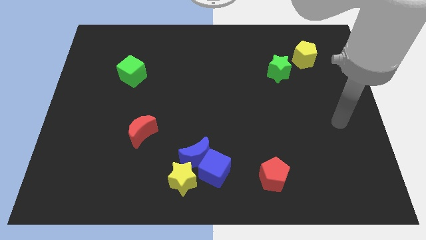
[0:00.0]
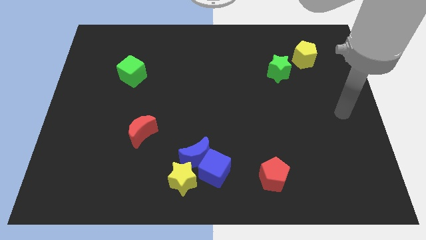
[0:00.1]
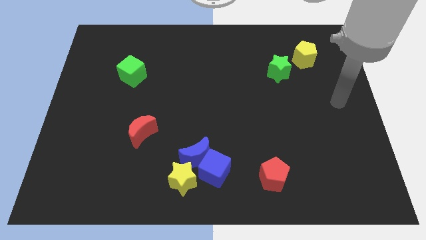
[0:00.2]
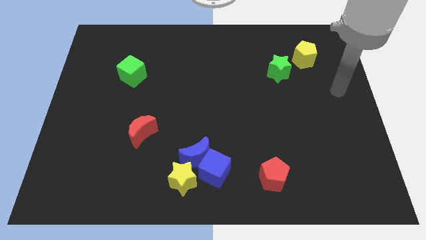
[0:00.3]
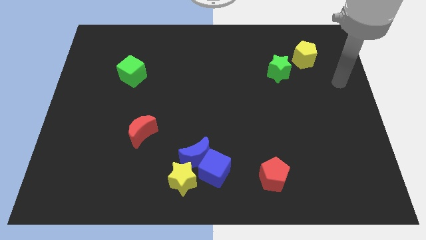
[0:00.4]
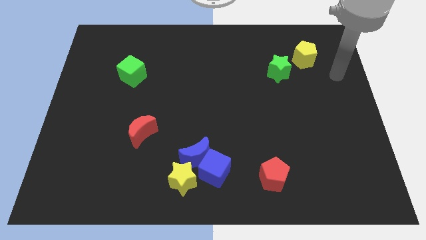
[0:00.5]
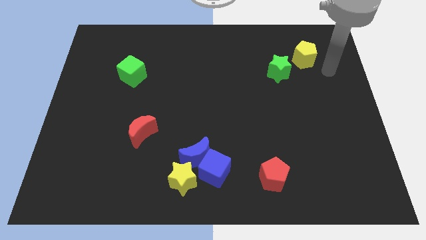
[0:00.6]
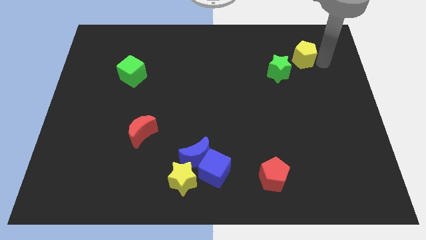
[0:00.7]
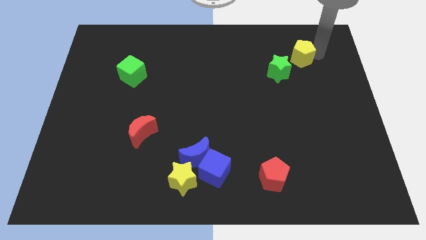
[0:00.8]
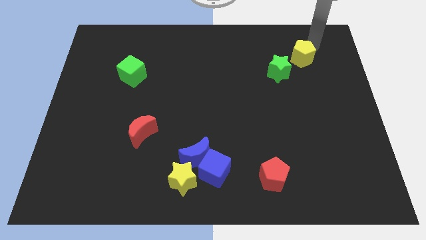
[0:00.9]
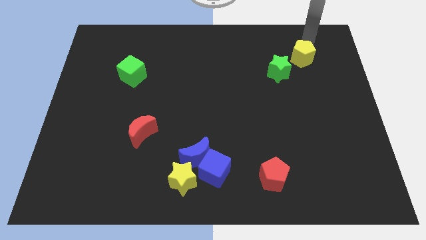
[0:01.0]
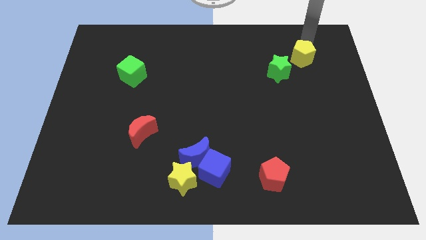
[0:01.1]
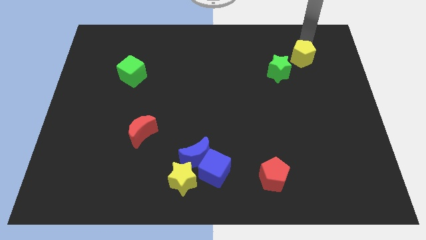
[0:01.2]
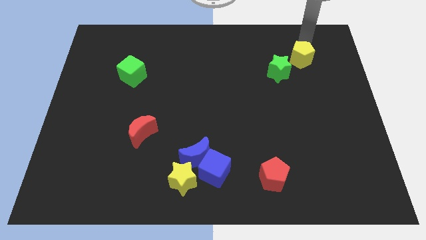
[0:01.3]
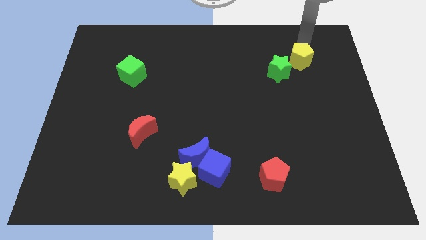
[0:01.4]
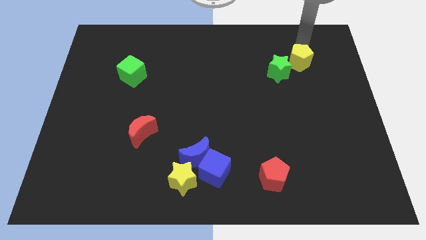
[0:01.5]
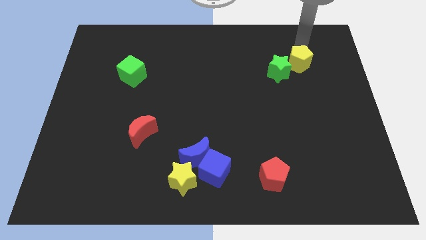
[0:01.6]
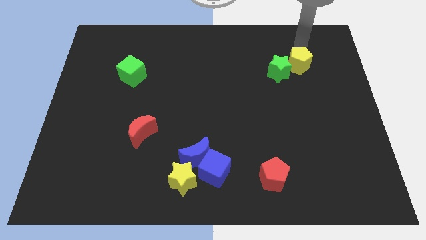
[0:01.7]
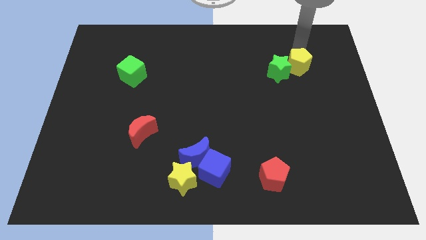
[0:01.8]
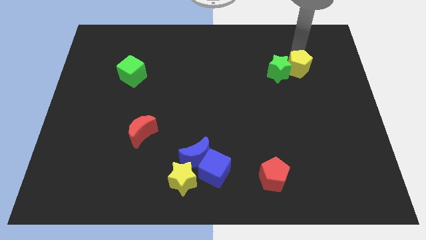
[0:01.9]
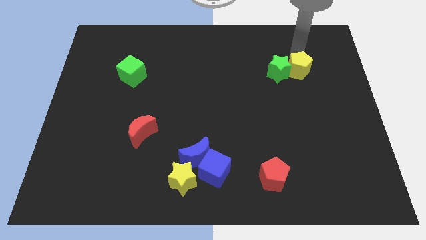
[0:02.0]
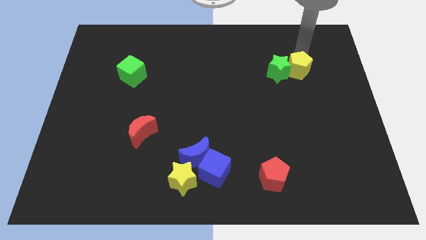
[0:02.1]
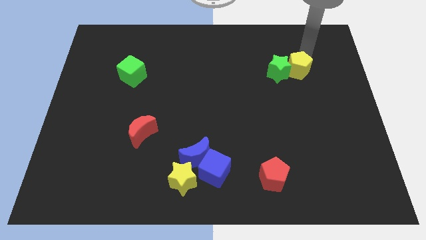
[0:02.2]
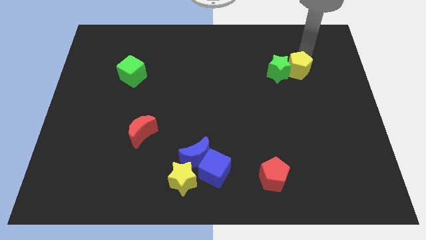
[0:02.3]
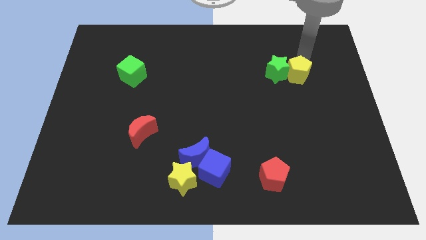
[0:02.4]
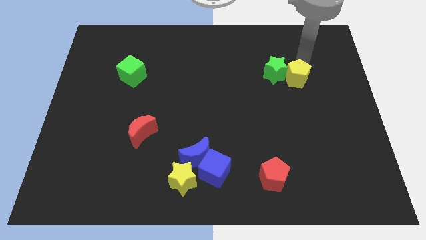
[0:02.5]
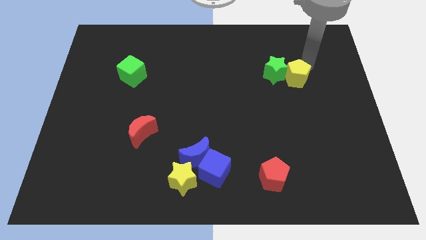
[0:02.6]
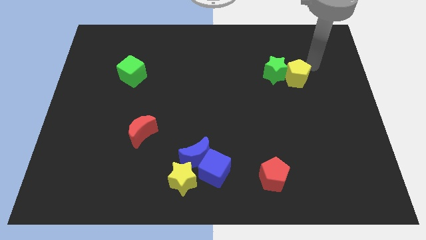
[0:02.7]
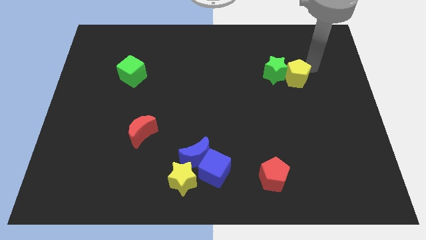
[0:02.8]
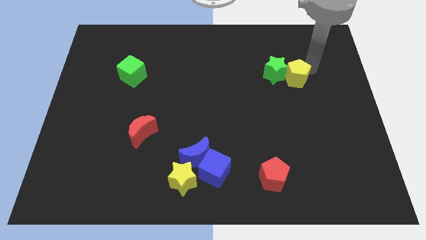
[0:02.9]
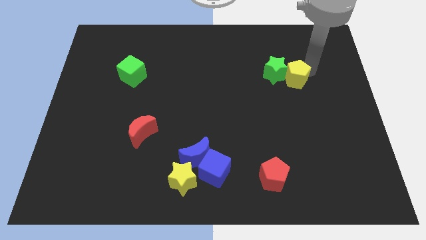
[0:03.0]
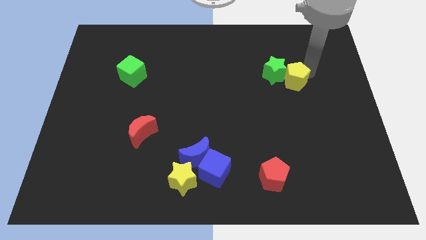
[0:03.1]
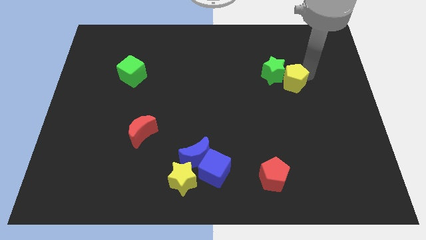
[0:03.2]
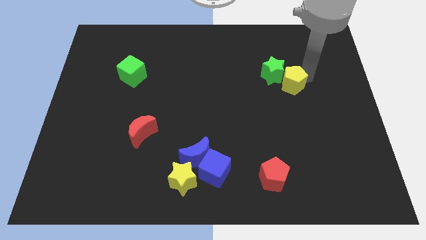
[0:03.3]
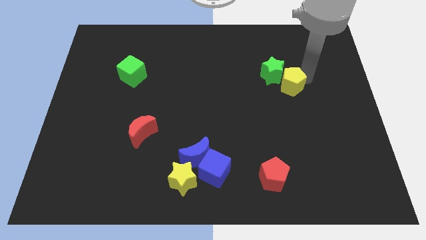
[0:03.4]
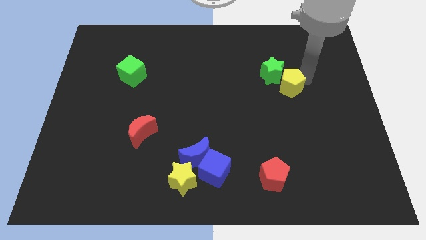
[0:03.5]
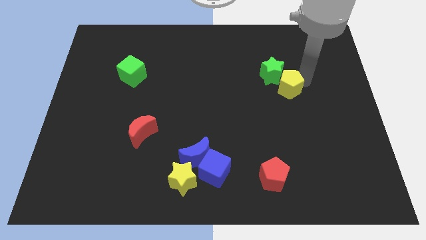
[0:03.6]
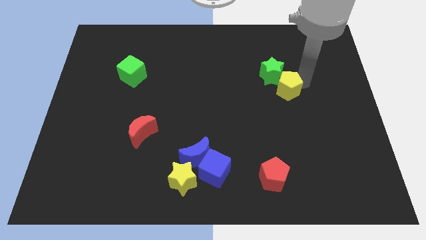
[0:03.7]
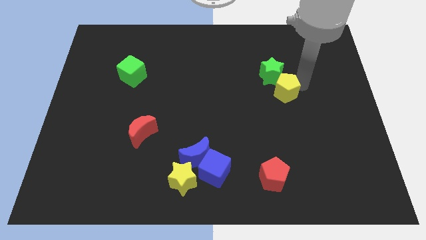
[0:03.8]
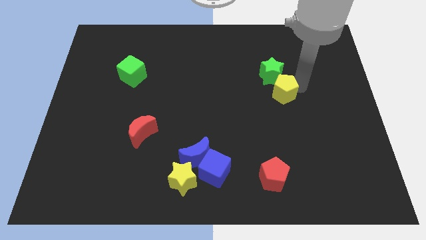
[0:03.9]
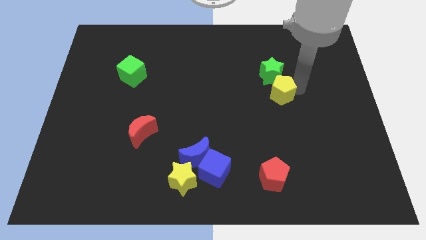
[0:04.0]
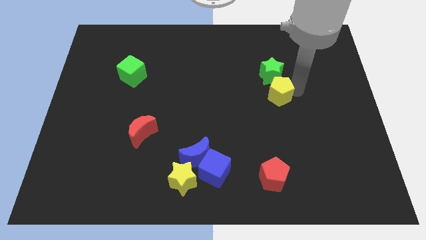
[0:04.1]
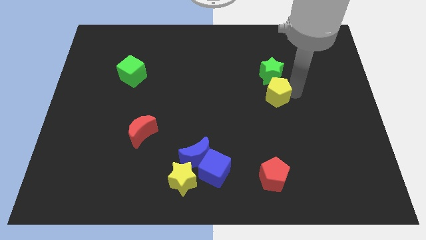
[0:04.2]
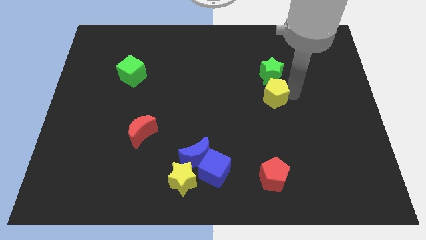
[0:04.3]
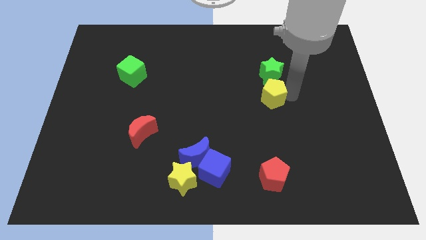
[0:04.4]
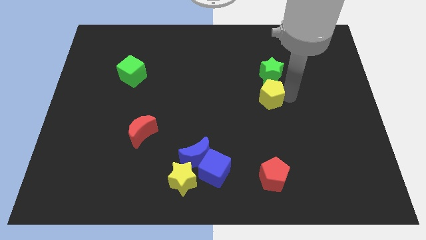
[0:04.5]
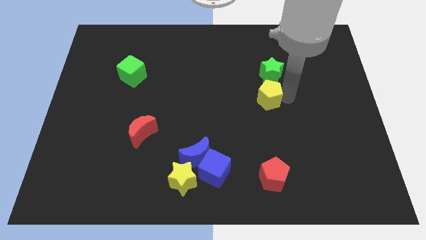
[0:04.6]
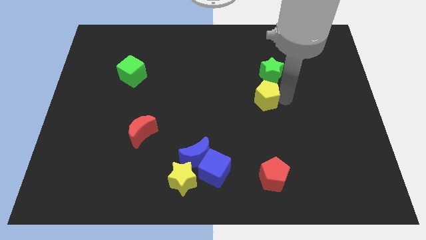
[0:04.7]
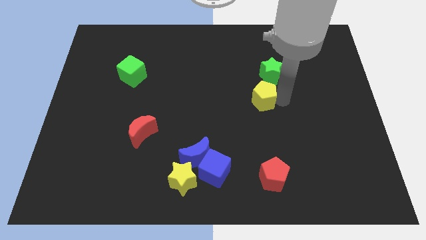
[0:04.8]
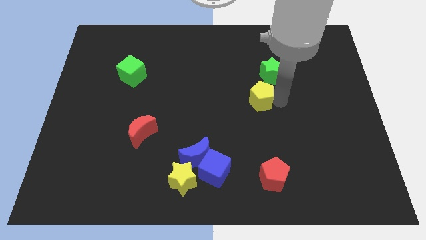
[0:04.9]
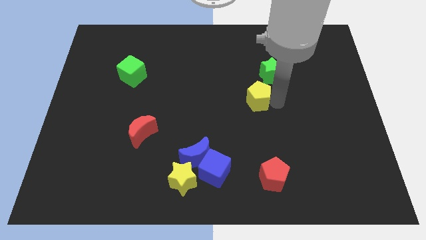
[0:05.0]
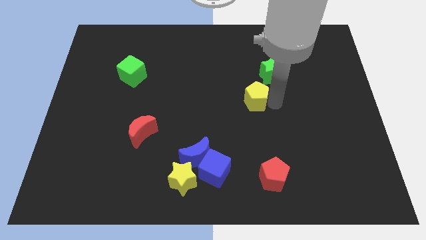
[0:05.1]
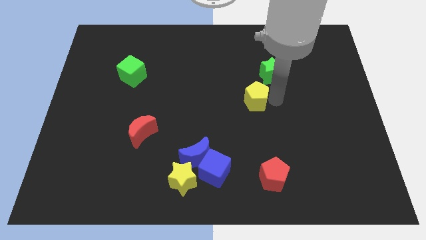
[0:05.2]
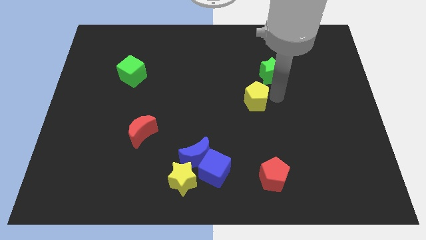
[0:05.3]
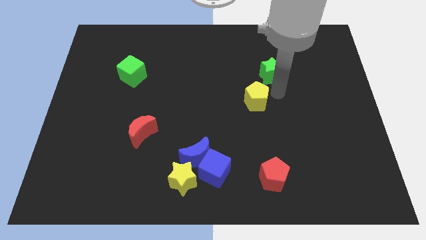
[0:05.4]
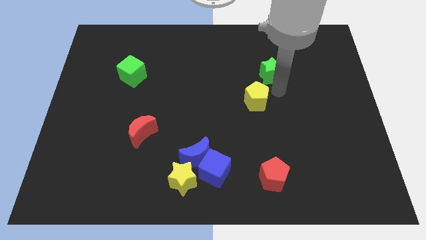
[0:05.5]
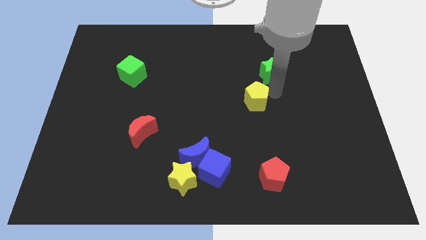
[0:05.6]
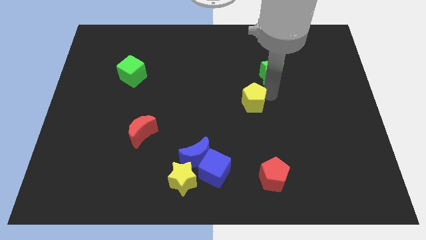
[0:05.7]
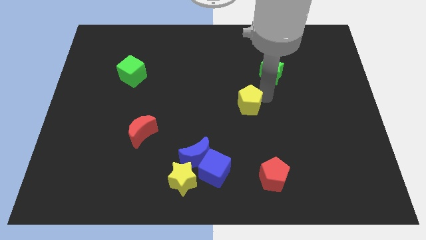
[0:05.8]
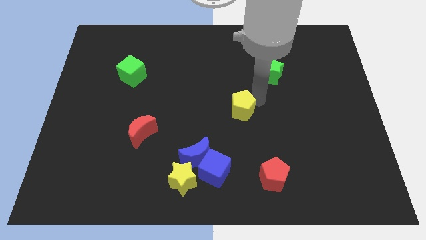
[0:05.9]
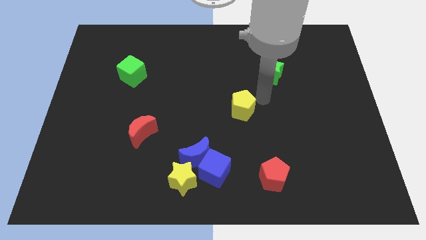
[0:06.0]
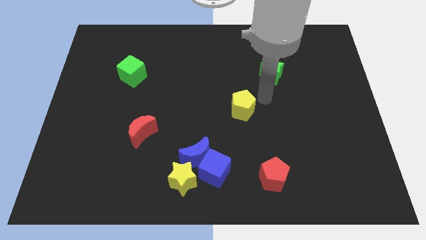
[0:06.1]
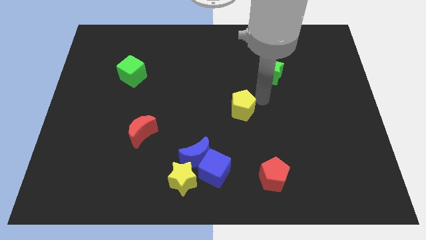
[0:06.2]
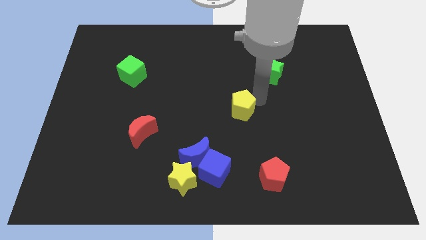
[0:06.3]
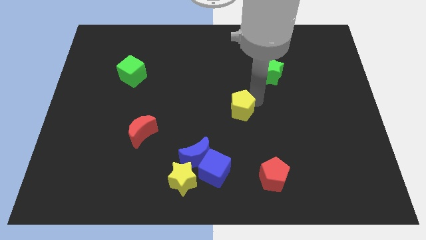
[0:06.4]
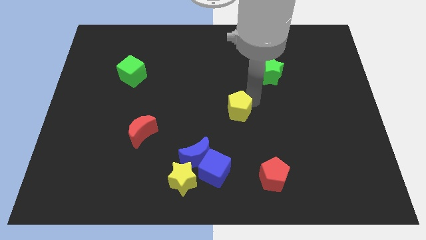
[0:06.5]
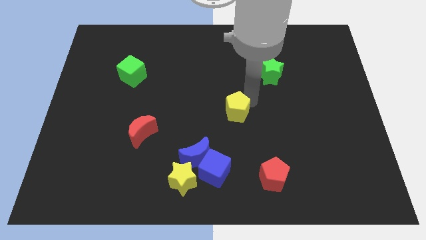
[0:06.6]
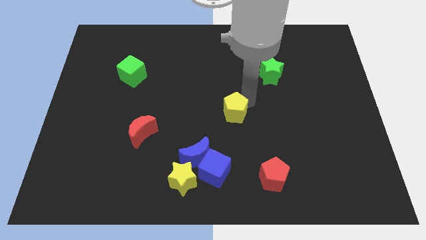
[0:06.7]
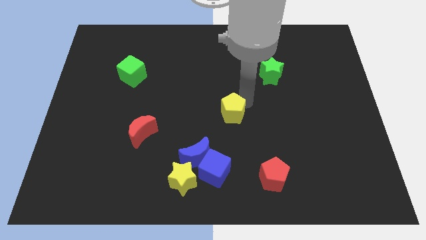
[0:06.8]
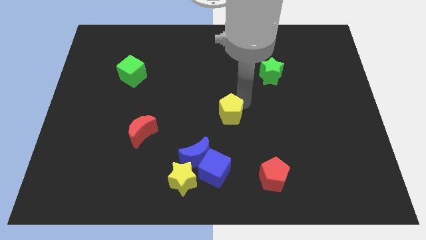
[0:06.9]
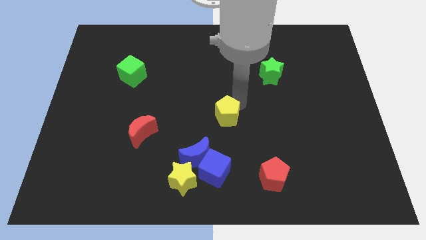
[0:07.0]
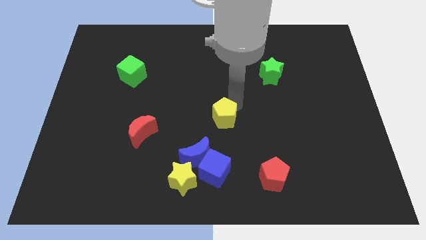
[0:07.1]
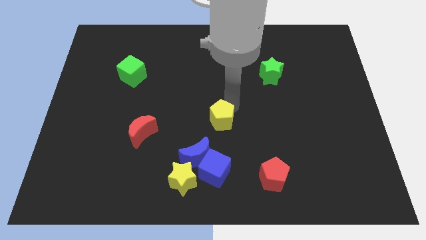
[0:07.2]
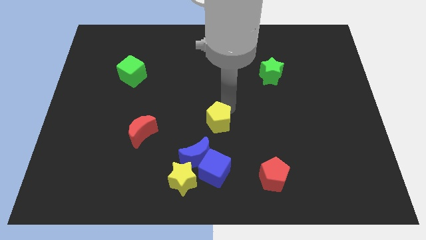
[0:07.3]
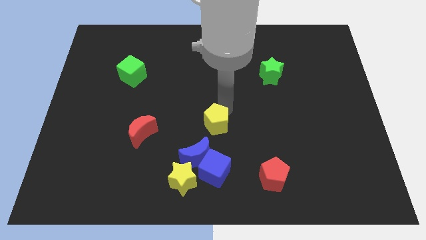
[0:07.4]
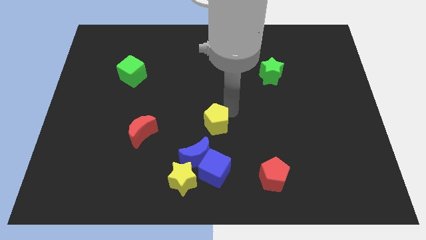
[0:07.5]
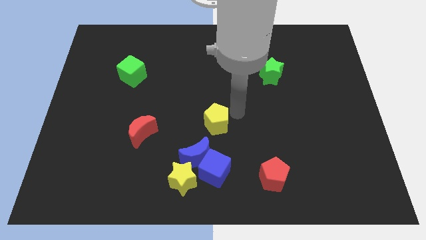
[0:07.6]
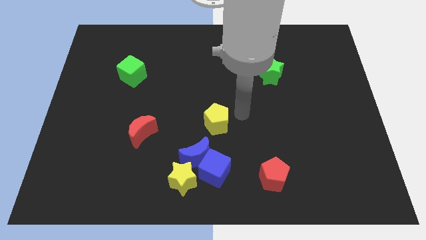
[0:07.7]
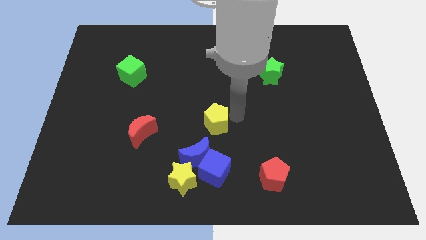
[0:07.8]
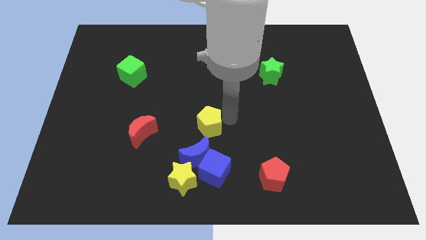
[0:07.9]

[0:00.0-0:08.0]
put the yellow pentagon to the right of the red moon
